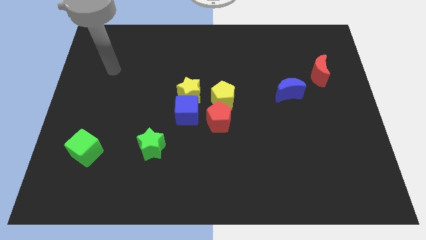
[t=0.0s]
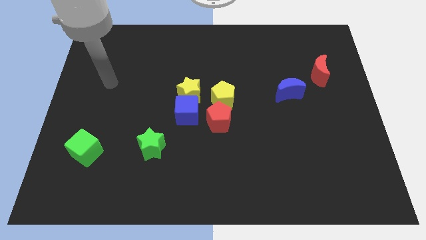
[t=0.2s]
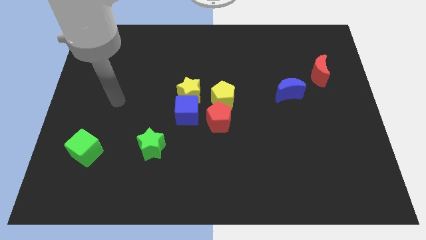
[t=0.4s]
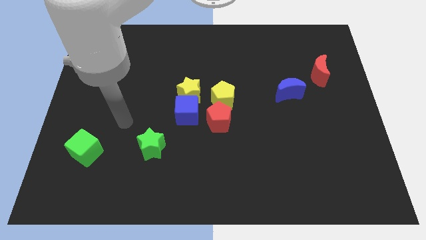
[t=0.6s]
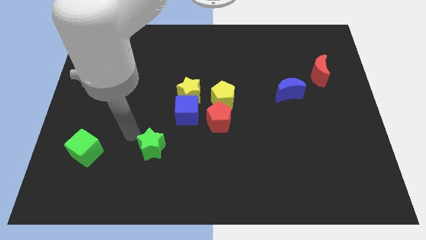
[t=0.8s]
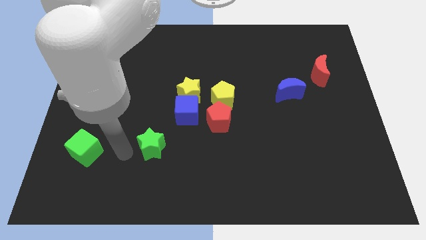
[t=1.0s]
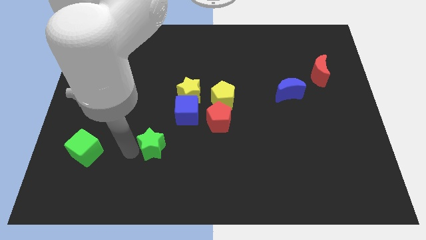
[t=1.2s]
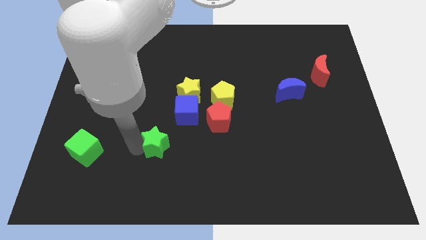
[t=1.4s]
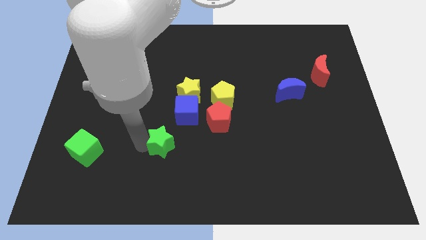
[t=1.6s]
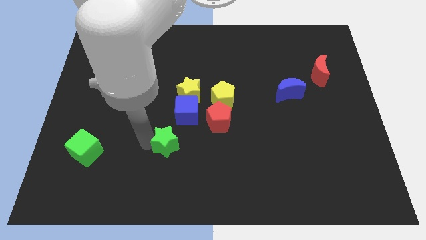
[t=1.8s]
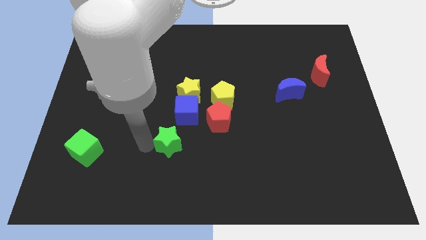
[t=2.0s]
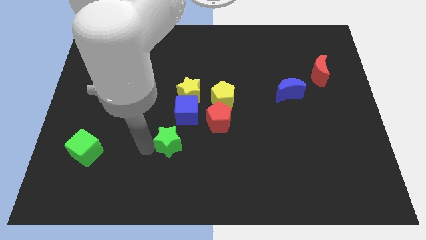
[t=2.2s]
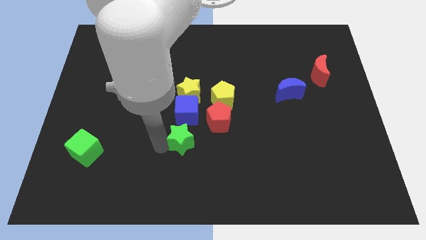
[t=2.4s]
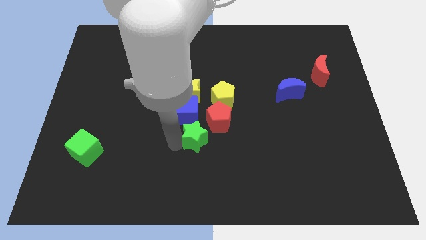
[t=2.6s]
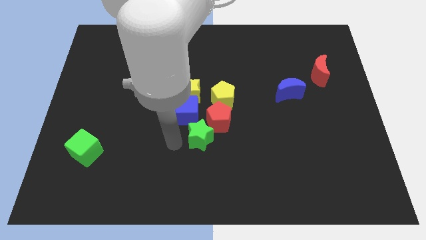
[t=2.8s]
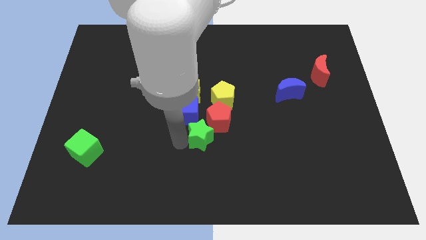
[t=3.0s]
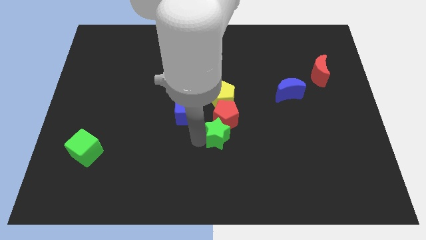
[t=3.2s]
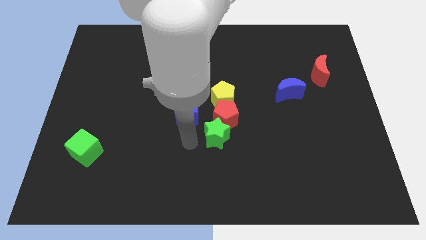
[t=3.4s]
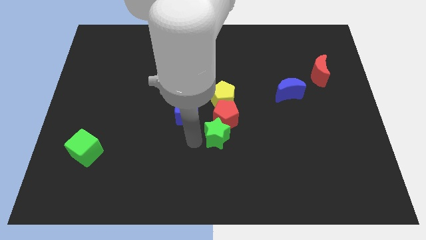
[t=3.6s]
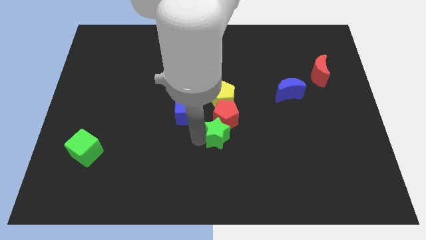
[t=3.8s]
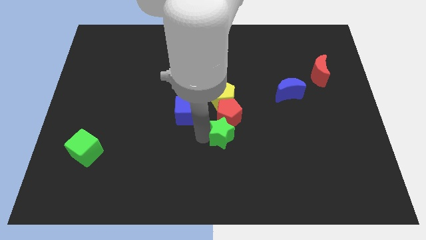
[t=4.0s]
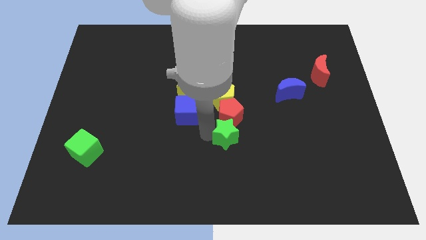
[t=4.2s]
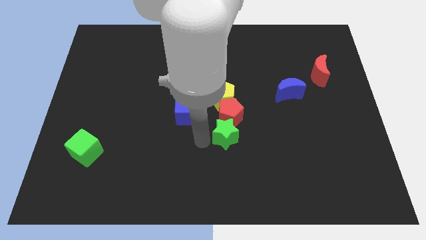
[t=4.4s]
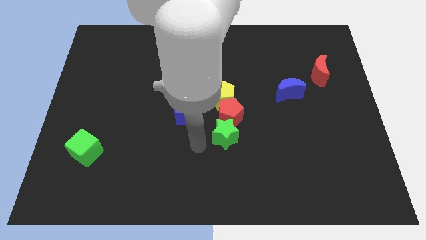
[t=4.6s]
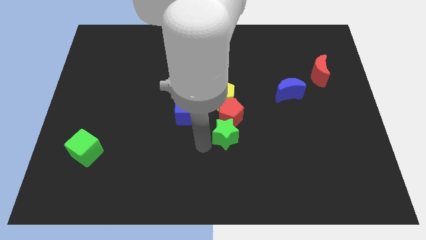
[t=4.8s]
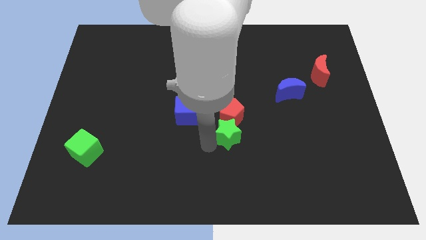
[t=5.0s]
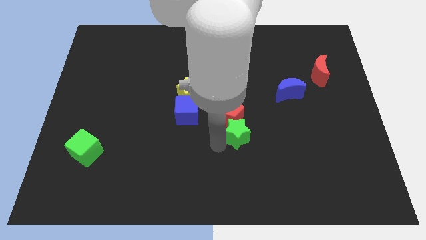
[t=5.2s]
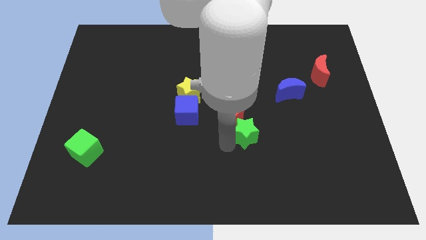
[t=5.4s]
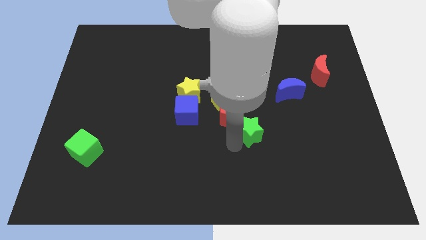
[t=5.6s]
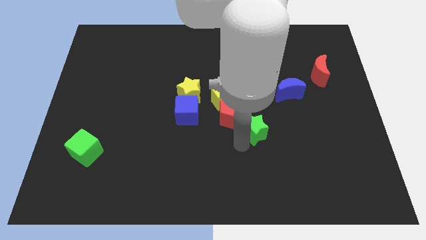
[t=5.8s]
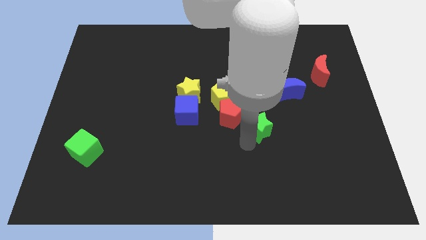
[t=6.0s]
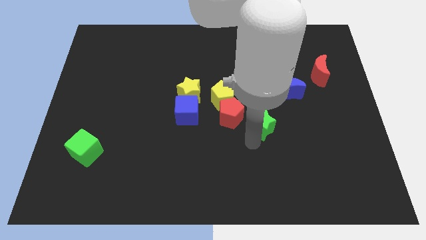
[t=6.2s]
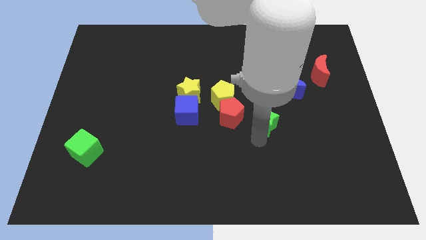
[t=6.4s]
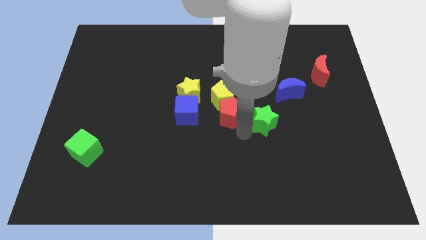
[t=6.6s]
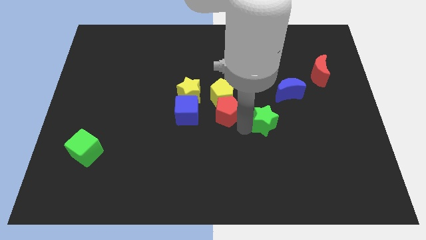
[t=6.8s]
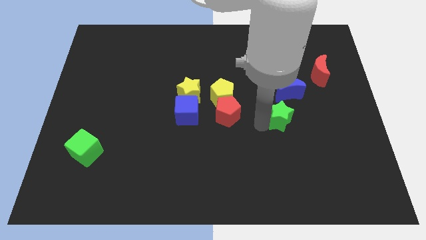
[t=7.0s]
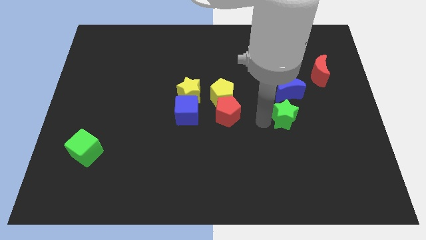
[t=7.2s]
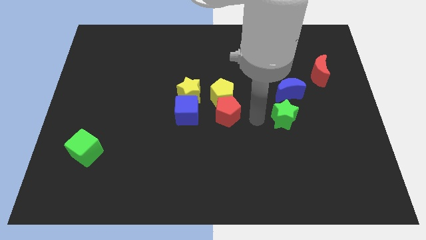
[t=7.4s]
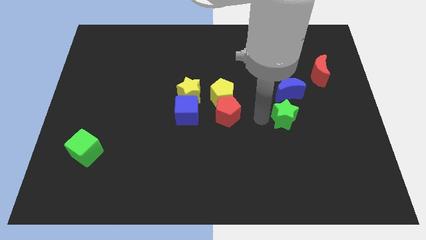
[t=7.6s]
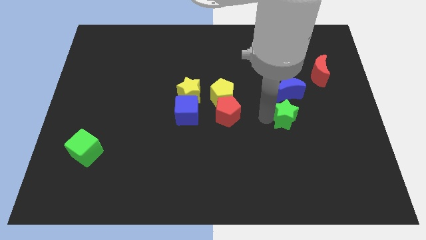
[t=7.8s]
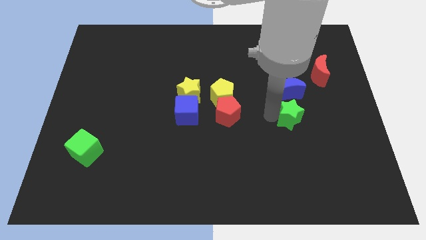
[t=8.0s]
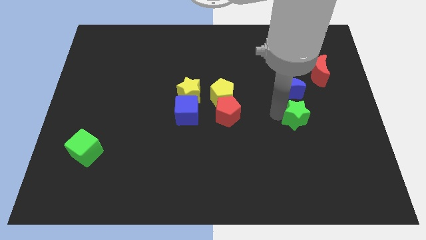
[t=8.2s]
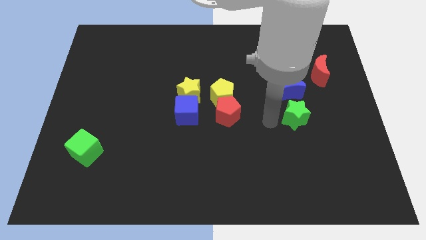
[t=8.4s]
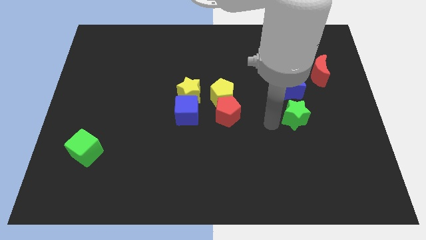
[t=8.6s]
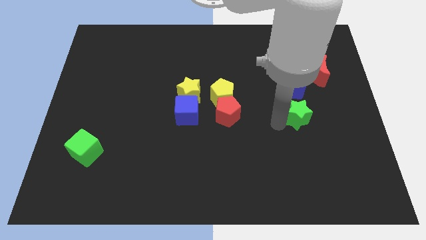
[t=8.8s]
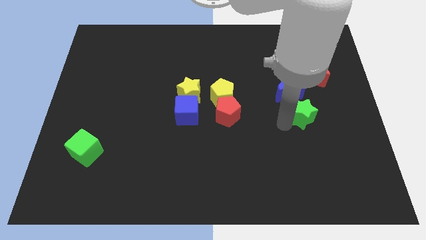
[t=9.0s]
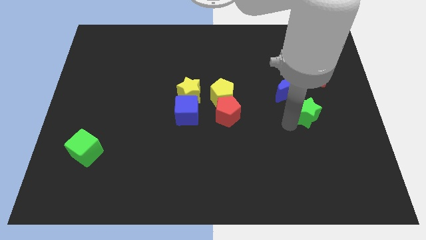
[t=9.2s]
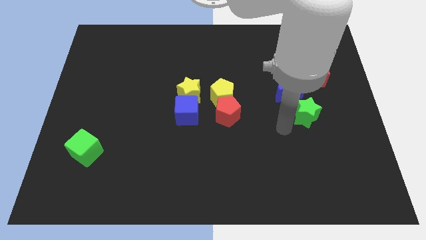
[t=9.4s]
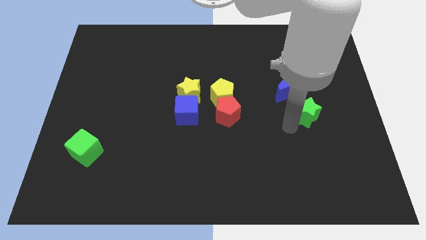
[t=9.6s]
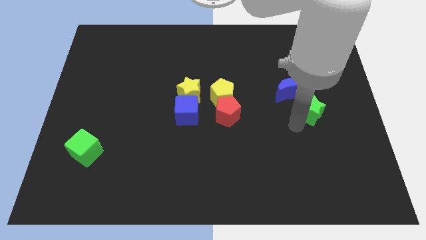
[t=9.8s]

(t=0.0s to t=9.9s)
put the green star below the red moon

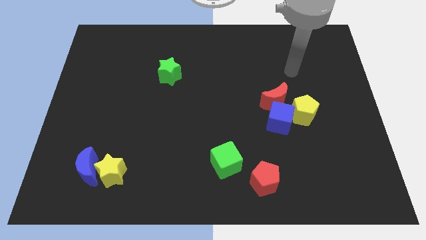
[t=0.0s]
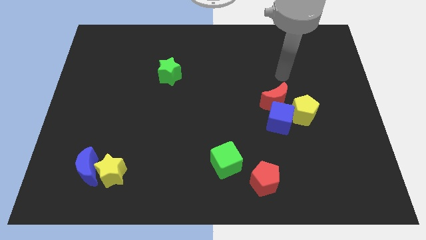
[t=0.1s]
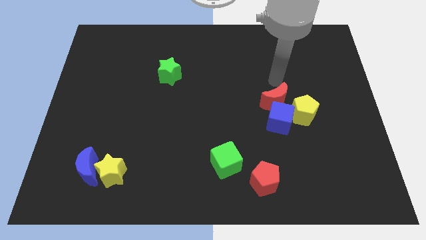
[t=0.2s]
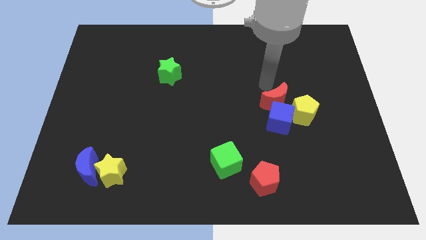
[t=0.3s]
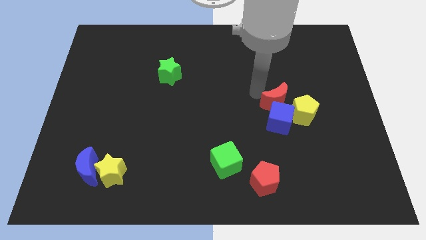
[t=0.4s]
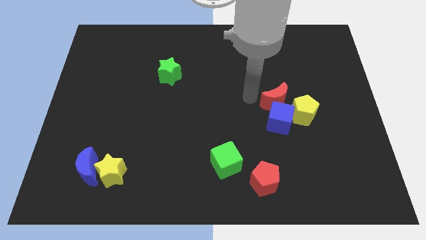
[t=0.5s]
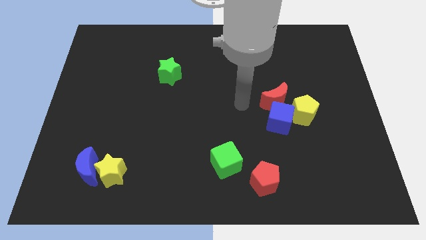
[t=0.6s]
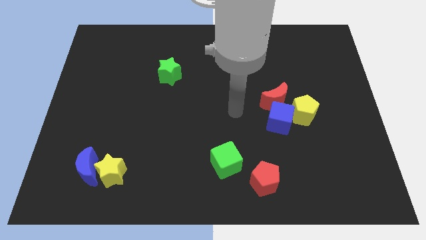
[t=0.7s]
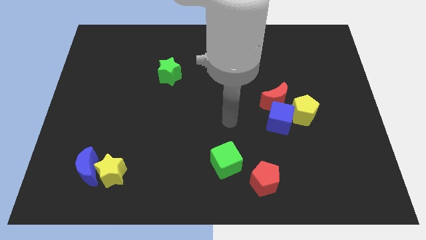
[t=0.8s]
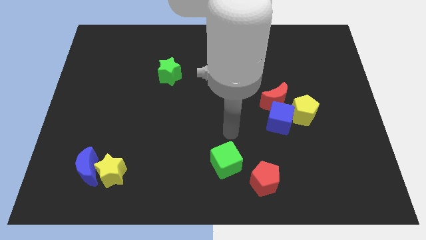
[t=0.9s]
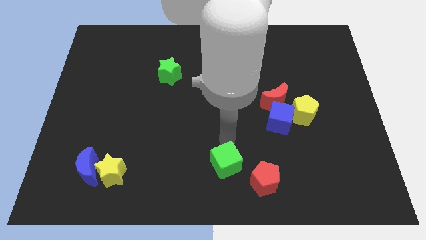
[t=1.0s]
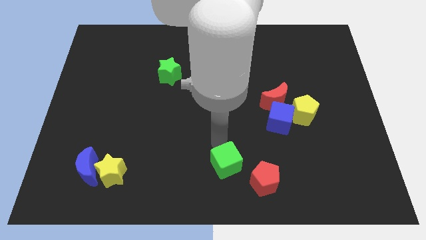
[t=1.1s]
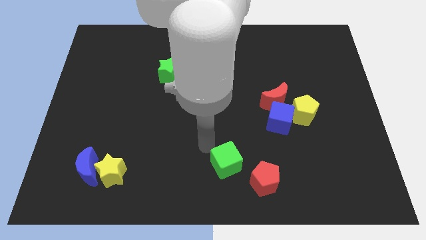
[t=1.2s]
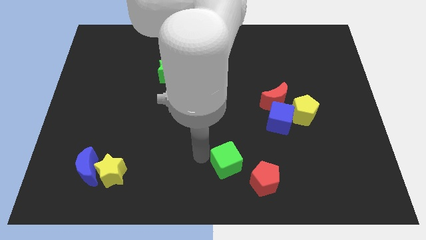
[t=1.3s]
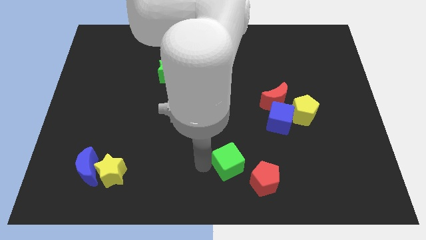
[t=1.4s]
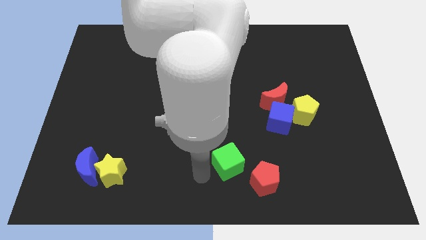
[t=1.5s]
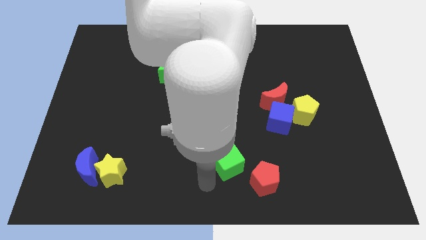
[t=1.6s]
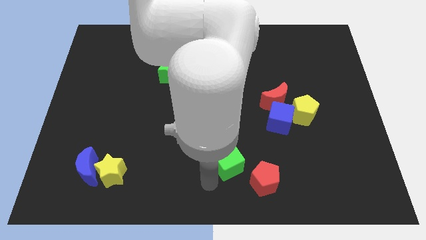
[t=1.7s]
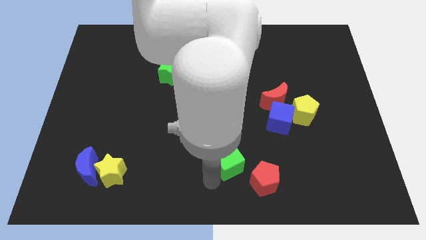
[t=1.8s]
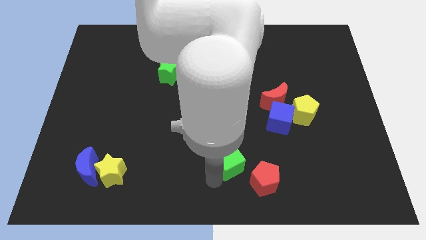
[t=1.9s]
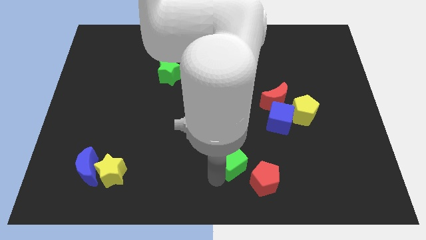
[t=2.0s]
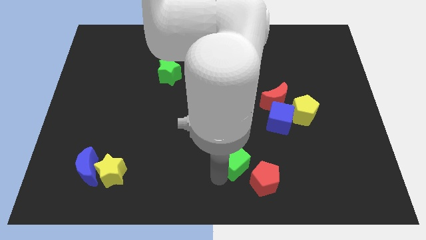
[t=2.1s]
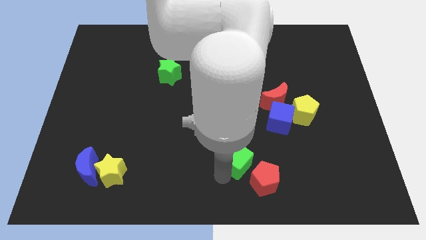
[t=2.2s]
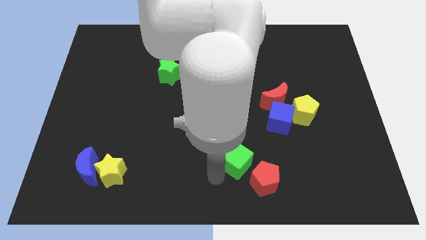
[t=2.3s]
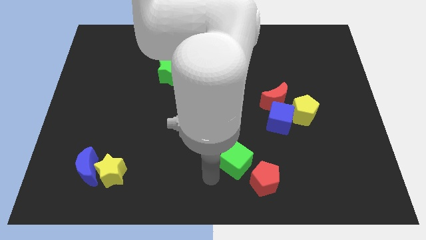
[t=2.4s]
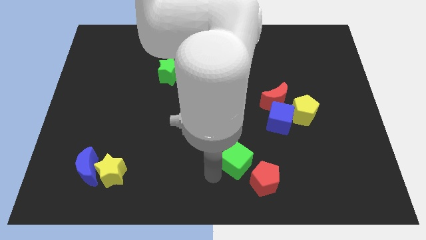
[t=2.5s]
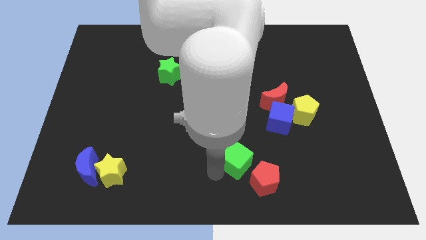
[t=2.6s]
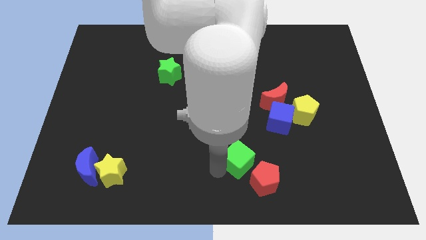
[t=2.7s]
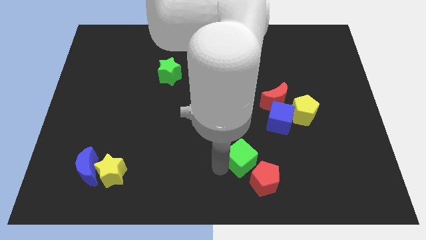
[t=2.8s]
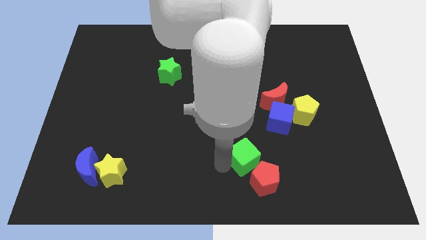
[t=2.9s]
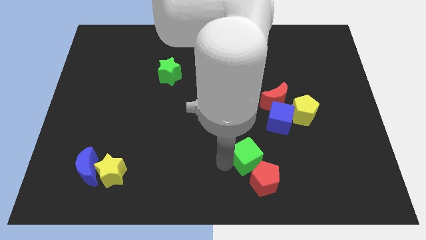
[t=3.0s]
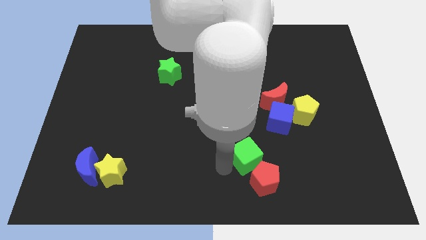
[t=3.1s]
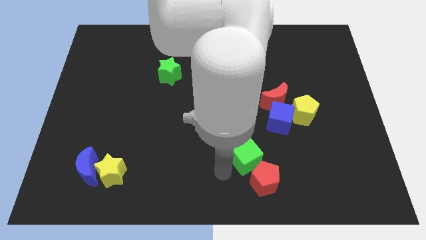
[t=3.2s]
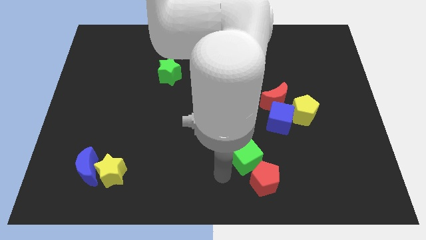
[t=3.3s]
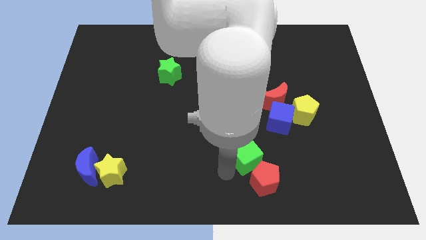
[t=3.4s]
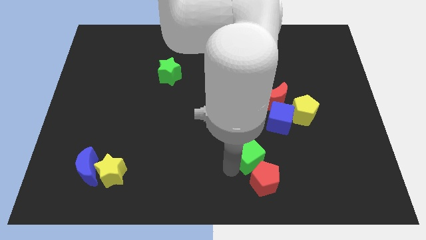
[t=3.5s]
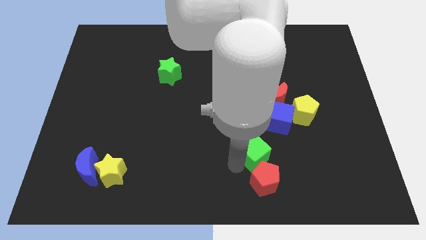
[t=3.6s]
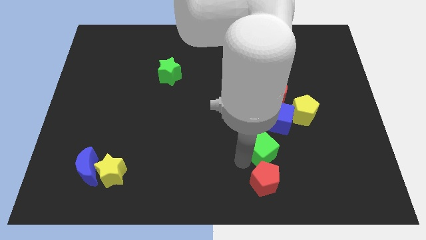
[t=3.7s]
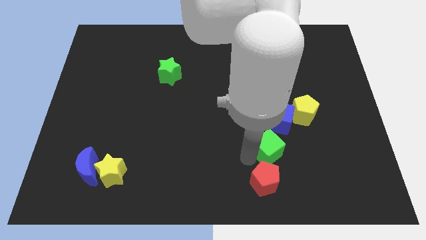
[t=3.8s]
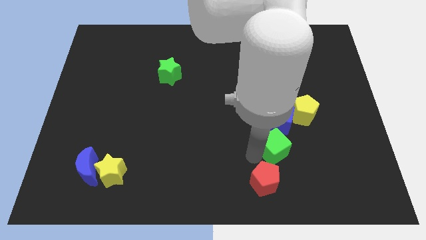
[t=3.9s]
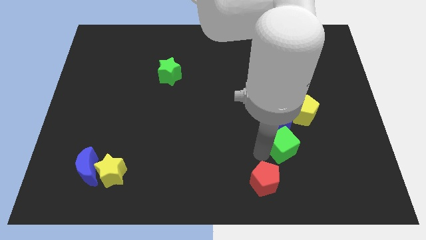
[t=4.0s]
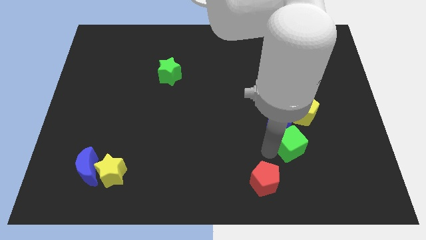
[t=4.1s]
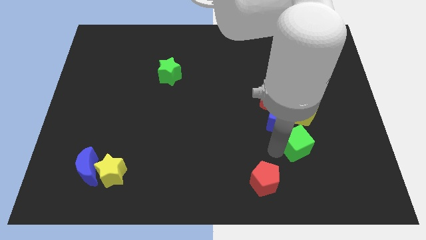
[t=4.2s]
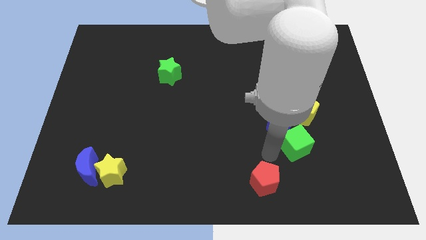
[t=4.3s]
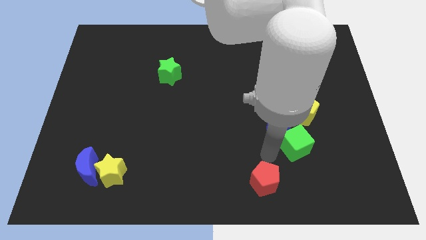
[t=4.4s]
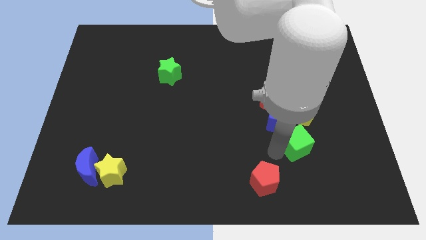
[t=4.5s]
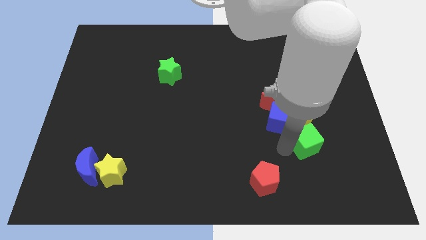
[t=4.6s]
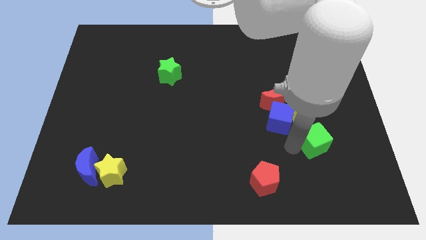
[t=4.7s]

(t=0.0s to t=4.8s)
push the green cube to the bottom right of the yellow pentagon
